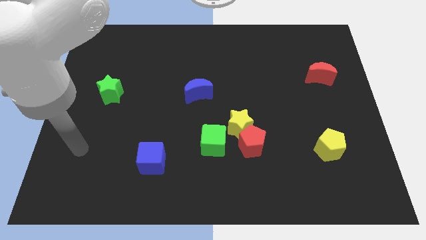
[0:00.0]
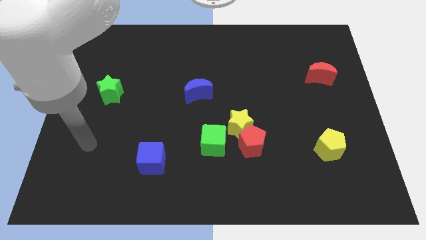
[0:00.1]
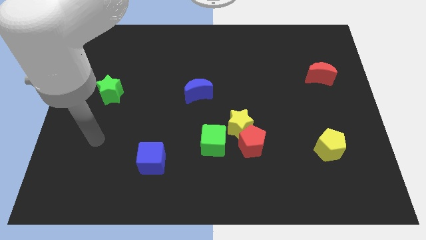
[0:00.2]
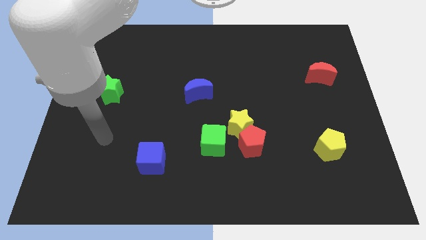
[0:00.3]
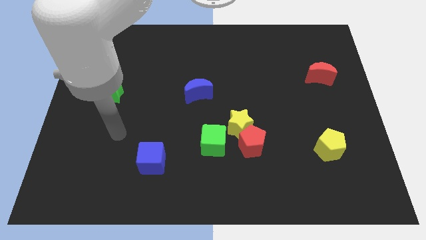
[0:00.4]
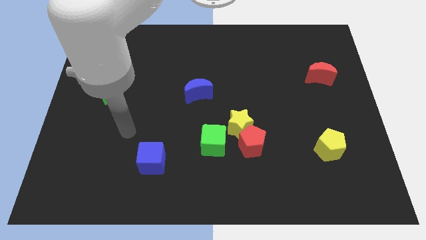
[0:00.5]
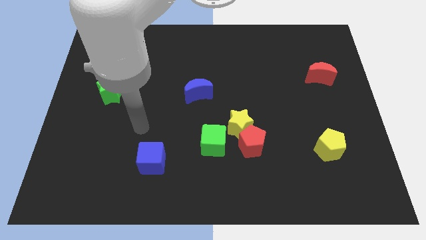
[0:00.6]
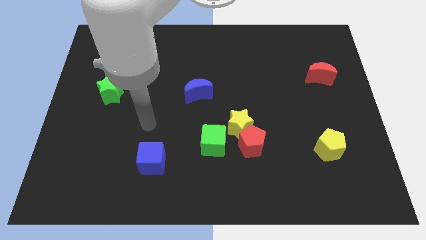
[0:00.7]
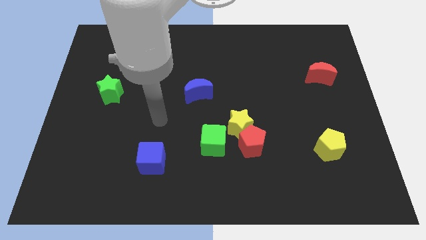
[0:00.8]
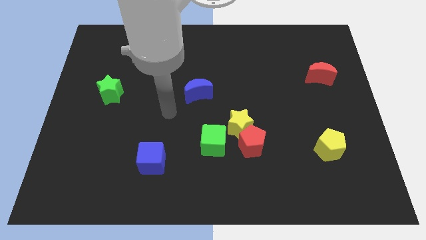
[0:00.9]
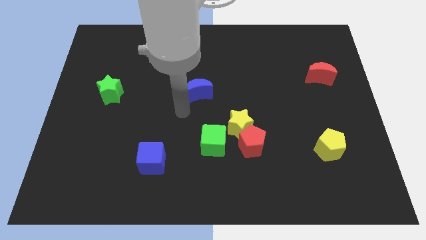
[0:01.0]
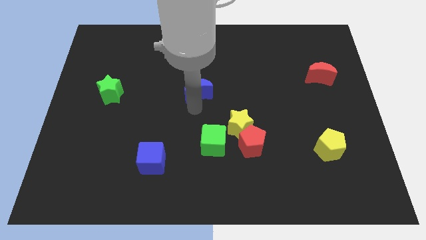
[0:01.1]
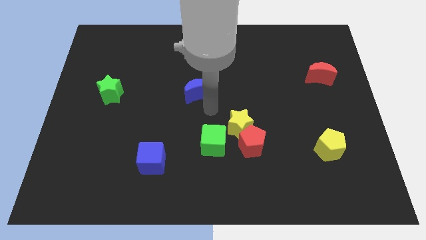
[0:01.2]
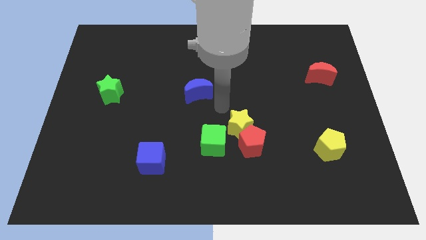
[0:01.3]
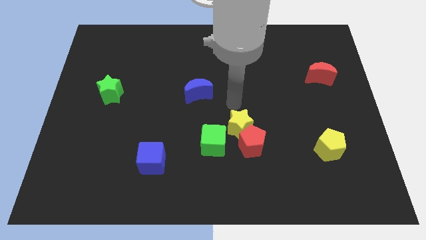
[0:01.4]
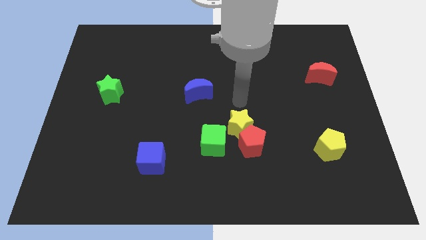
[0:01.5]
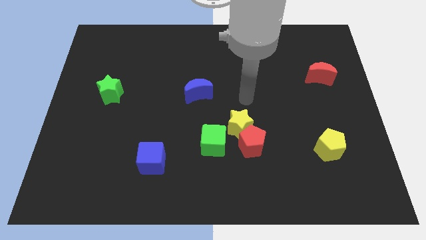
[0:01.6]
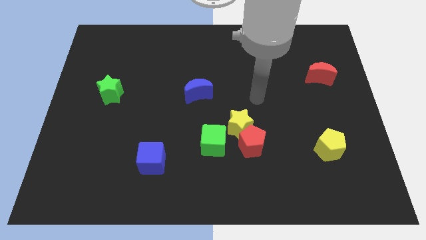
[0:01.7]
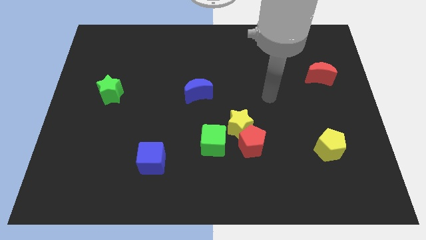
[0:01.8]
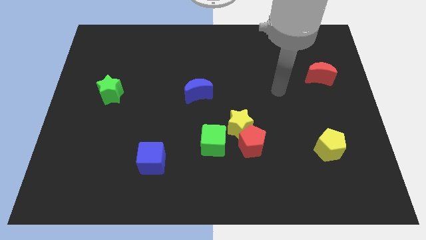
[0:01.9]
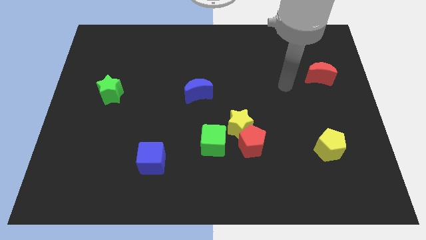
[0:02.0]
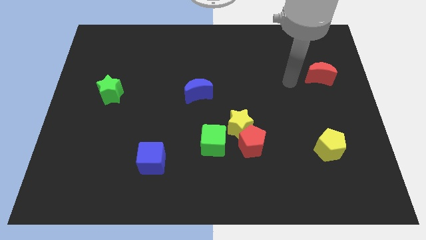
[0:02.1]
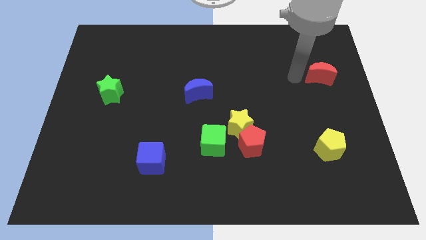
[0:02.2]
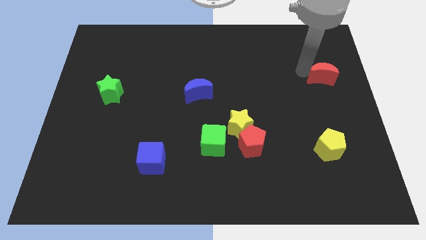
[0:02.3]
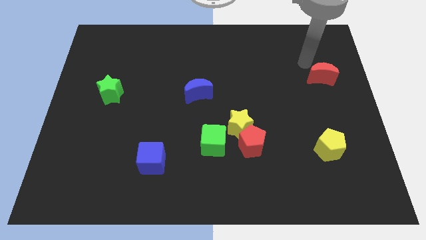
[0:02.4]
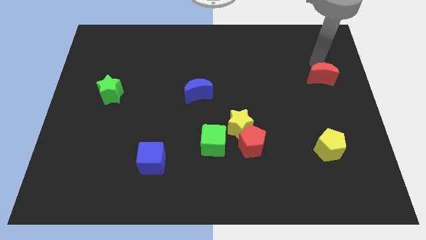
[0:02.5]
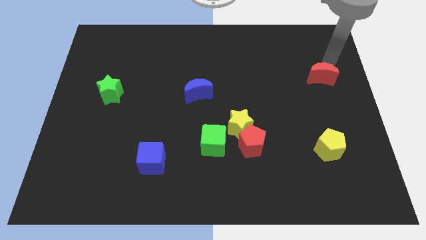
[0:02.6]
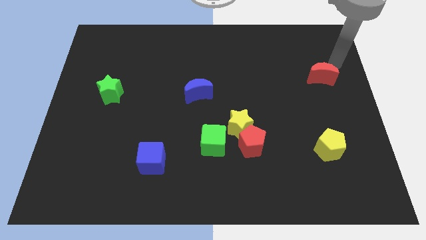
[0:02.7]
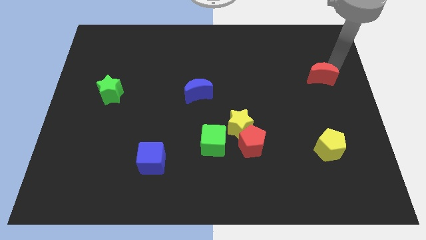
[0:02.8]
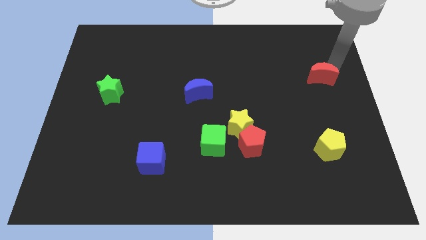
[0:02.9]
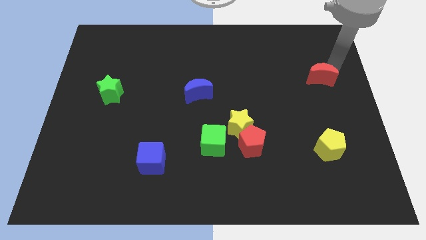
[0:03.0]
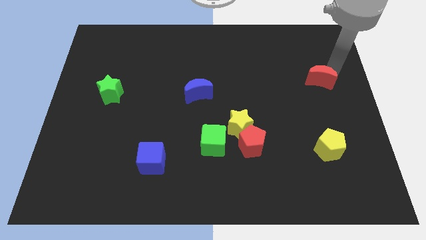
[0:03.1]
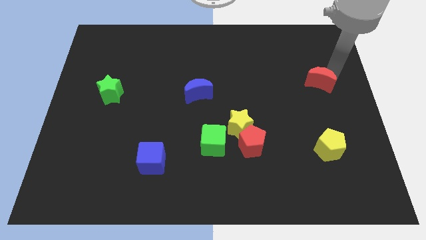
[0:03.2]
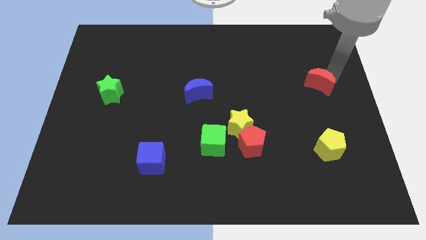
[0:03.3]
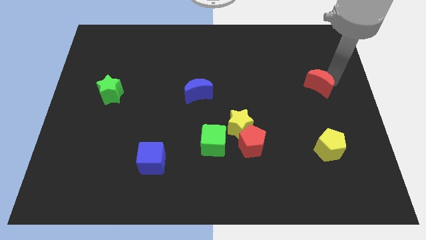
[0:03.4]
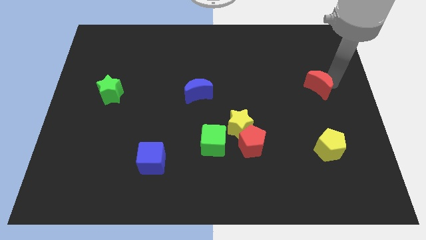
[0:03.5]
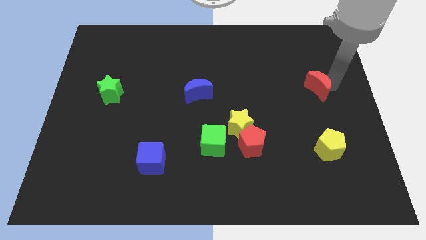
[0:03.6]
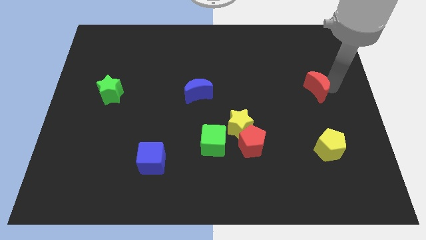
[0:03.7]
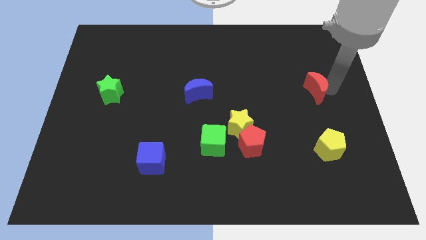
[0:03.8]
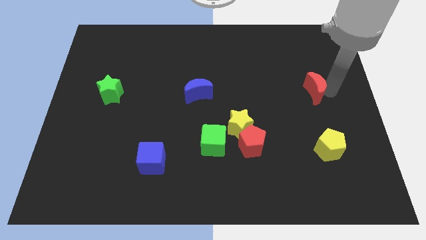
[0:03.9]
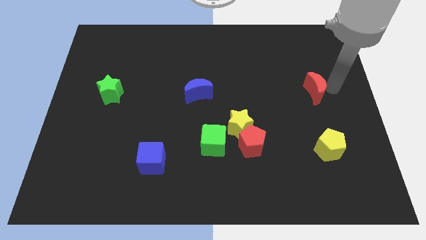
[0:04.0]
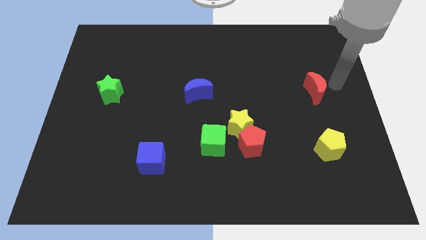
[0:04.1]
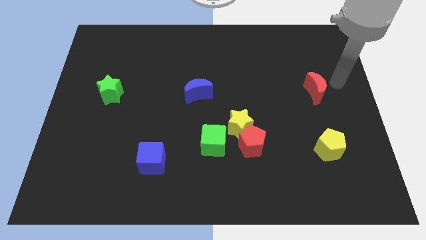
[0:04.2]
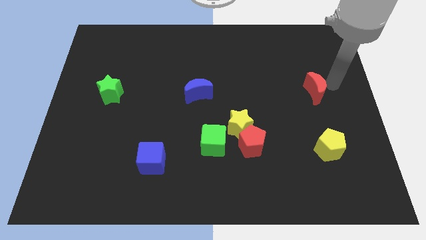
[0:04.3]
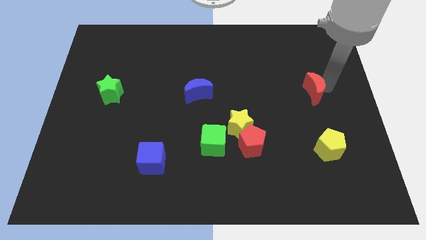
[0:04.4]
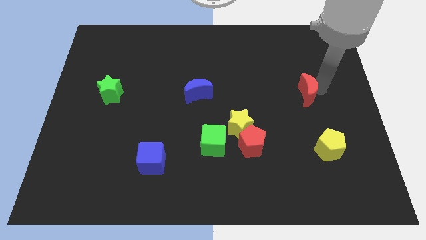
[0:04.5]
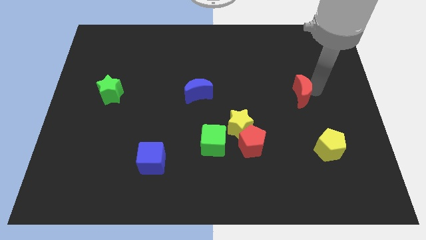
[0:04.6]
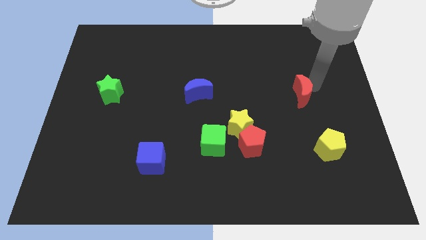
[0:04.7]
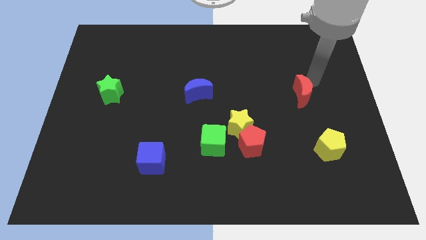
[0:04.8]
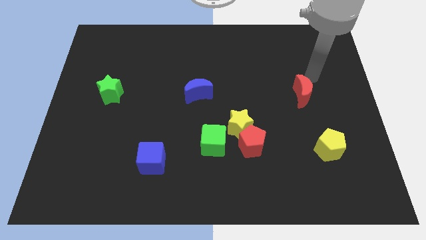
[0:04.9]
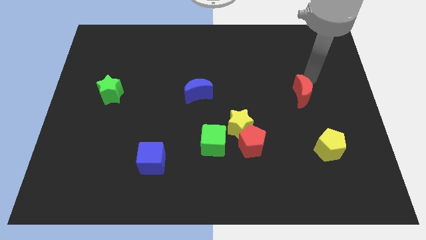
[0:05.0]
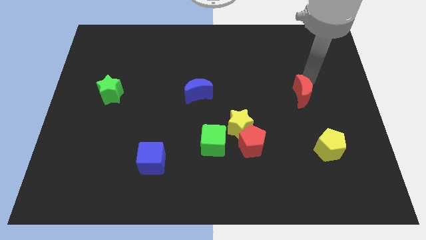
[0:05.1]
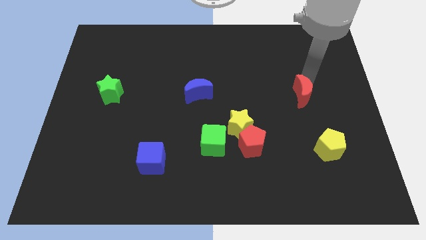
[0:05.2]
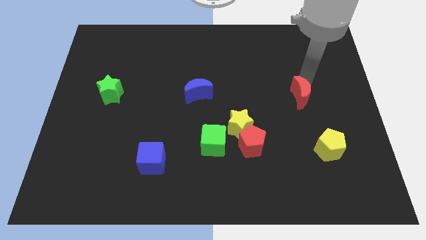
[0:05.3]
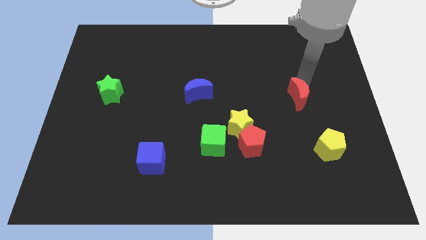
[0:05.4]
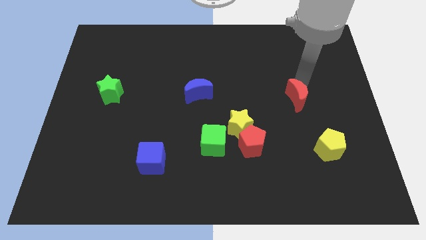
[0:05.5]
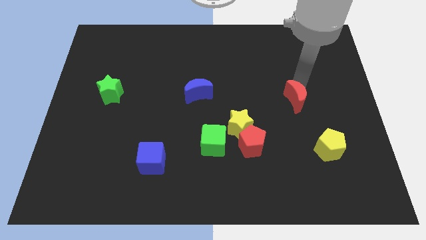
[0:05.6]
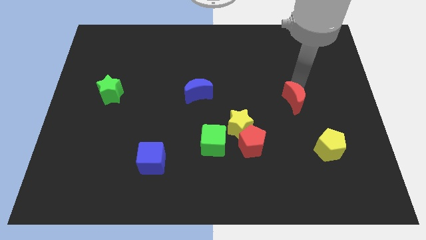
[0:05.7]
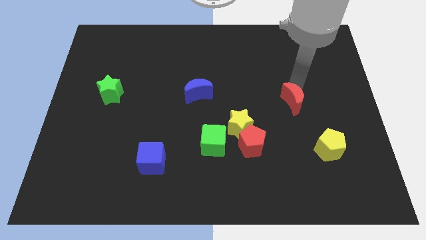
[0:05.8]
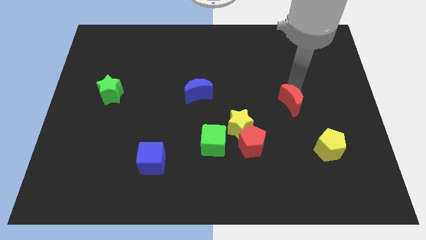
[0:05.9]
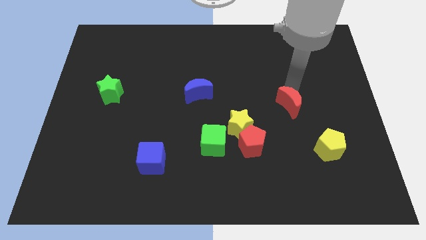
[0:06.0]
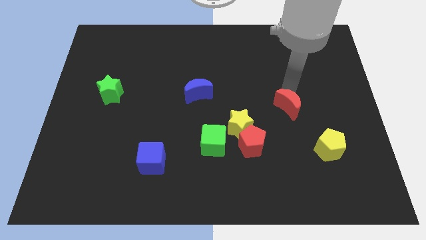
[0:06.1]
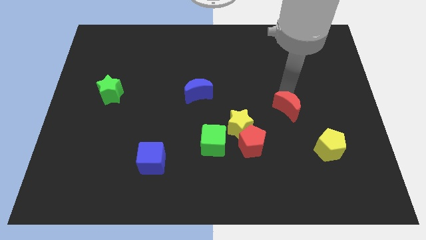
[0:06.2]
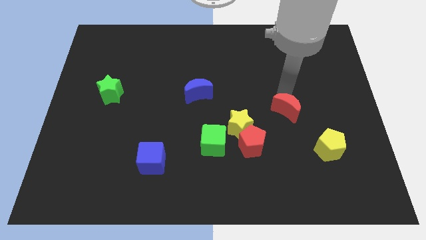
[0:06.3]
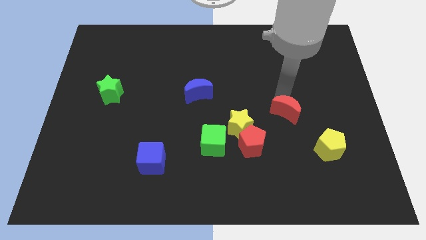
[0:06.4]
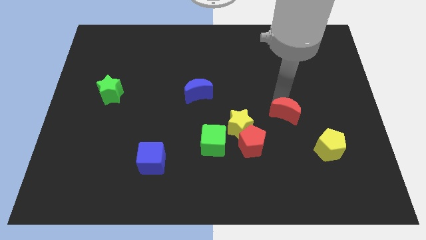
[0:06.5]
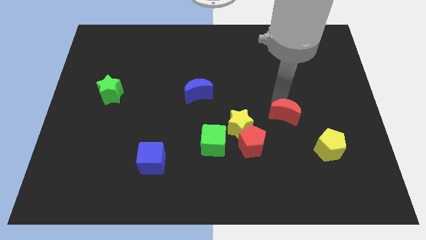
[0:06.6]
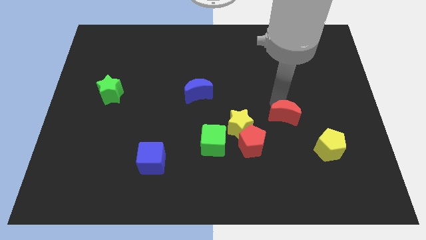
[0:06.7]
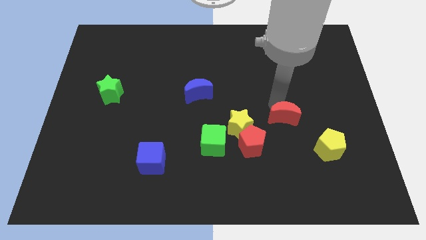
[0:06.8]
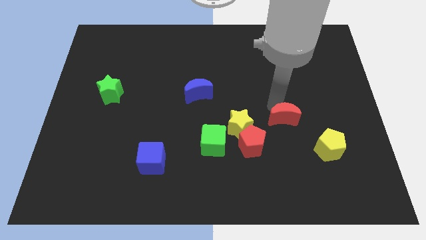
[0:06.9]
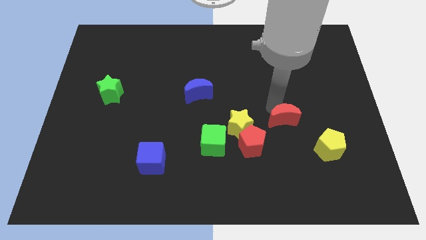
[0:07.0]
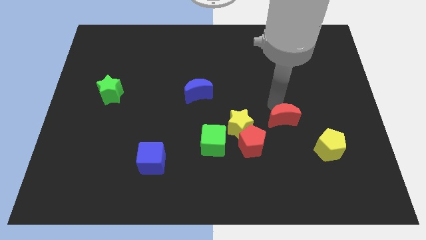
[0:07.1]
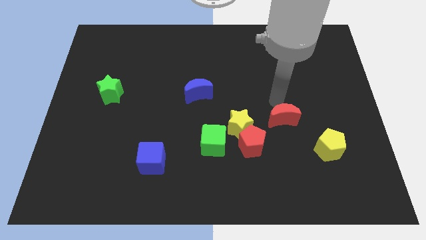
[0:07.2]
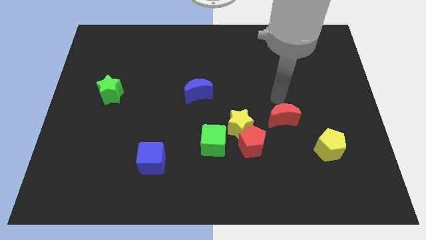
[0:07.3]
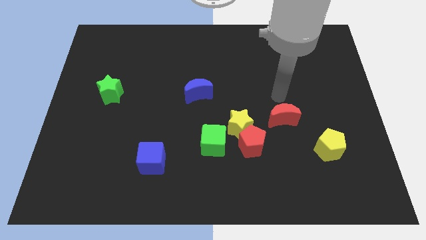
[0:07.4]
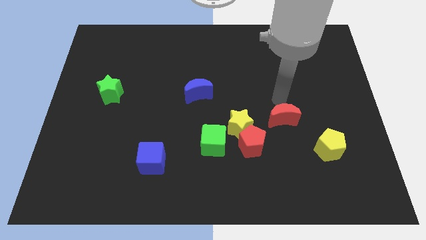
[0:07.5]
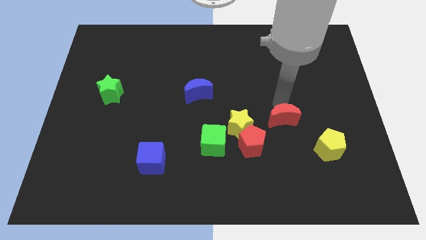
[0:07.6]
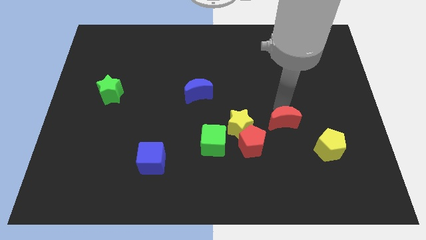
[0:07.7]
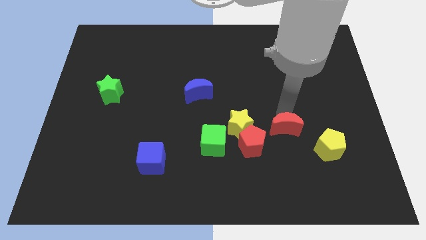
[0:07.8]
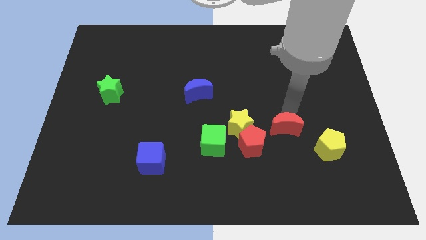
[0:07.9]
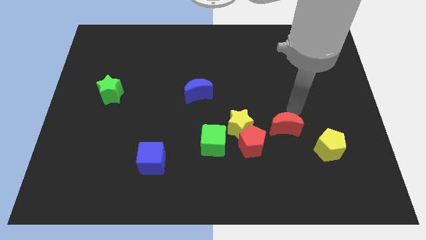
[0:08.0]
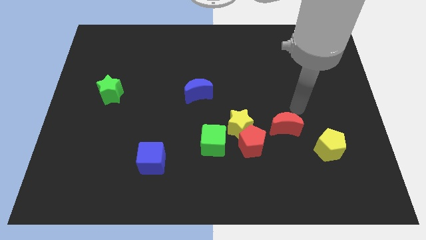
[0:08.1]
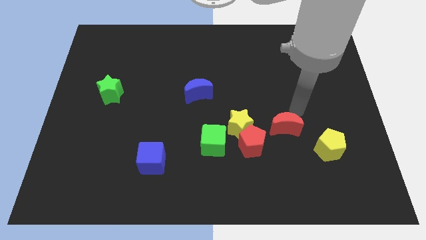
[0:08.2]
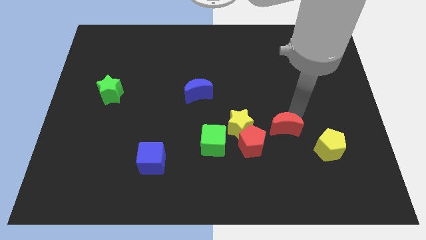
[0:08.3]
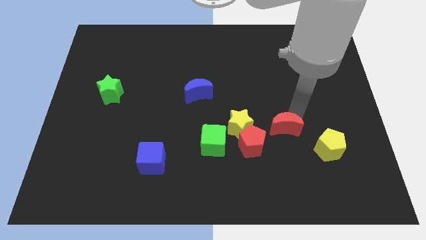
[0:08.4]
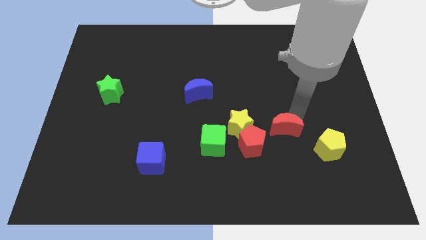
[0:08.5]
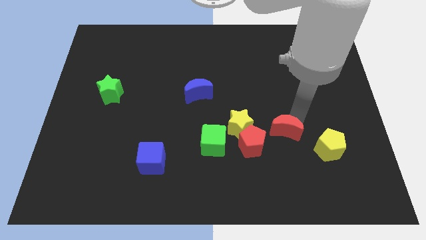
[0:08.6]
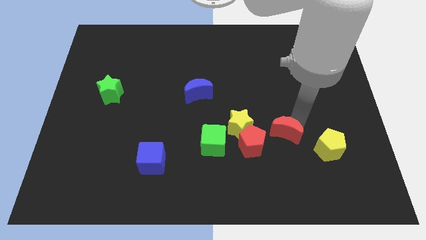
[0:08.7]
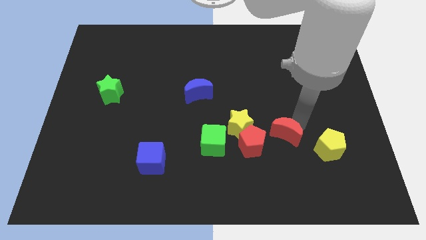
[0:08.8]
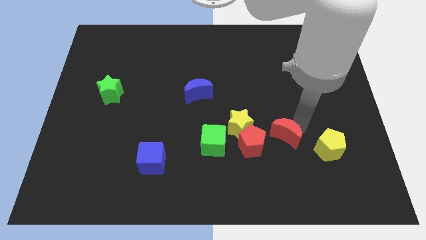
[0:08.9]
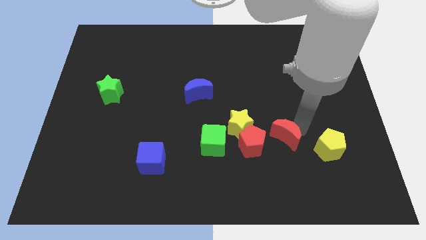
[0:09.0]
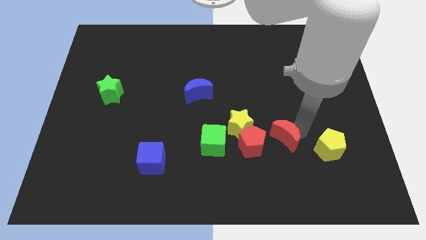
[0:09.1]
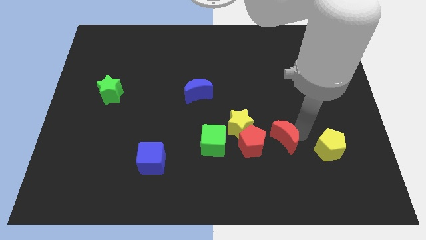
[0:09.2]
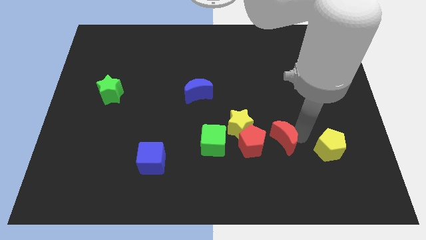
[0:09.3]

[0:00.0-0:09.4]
slide the red moon down and left diagonally
